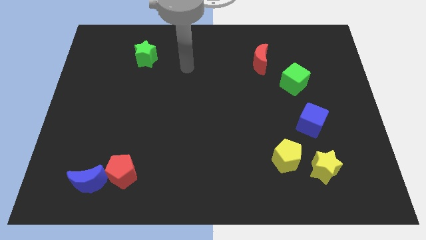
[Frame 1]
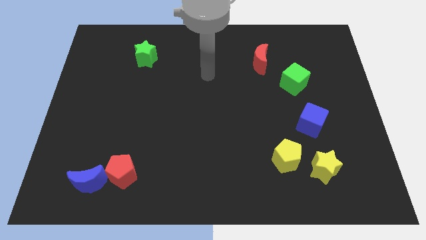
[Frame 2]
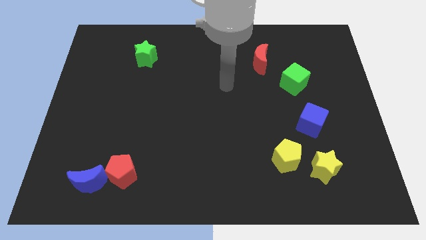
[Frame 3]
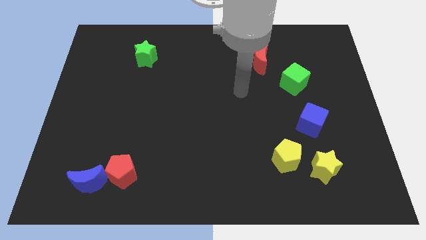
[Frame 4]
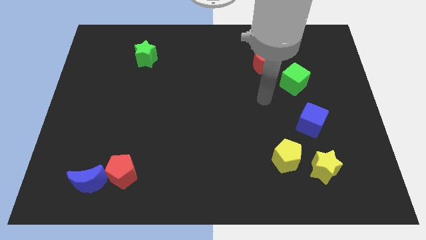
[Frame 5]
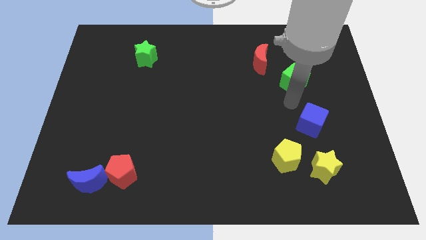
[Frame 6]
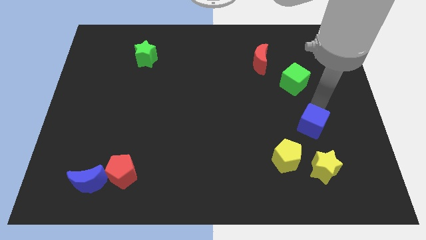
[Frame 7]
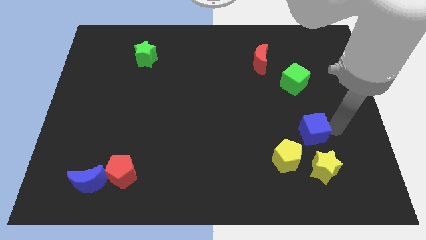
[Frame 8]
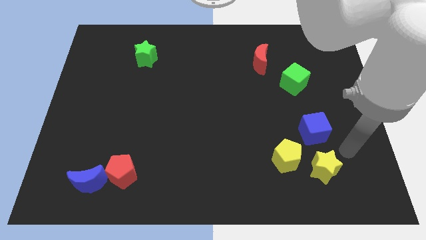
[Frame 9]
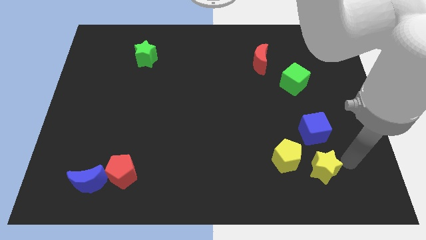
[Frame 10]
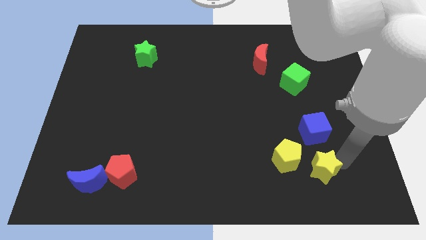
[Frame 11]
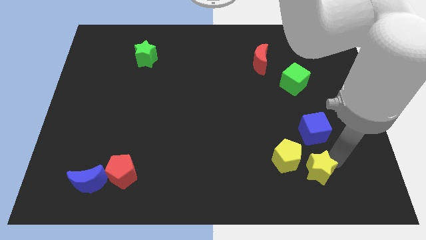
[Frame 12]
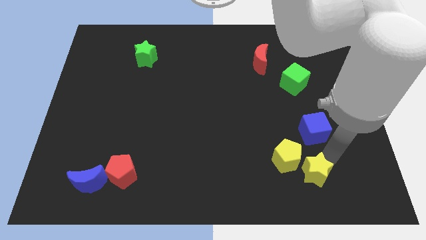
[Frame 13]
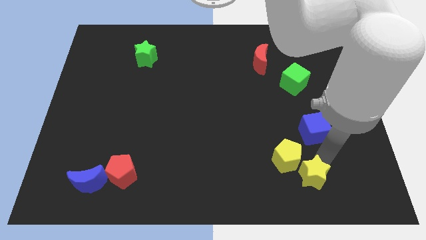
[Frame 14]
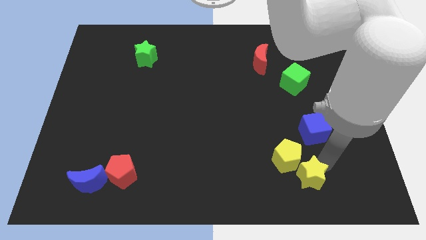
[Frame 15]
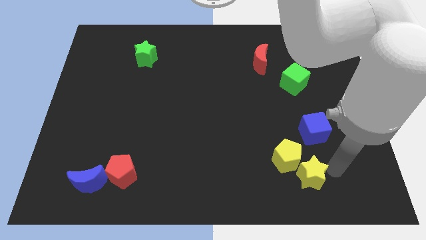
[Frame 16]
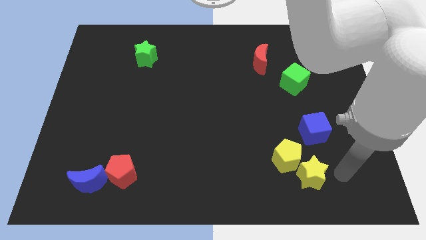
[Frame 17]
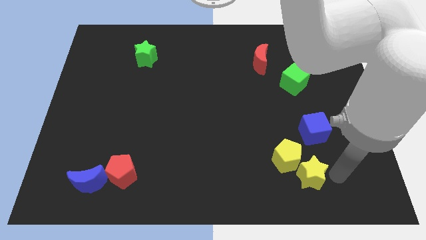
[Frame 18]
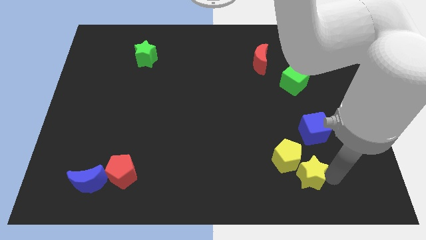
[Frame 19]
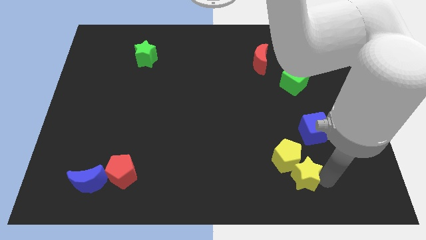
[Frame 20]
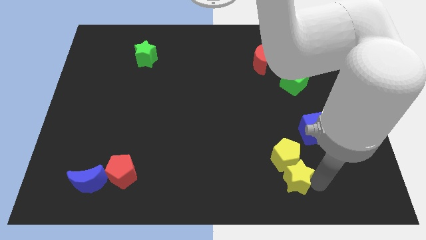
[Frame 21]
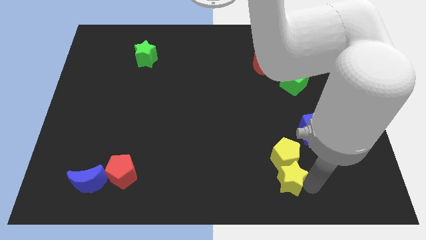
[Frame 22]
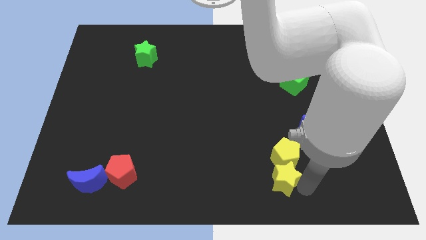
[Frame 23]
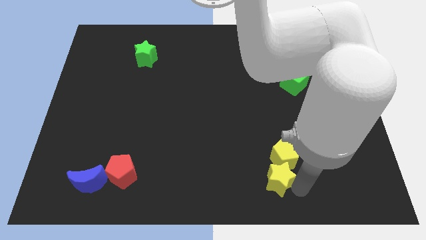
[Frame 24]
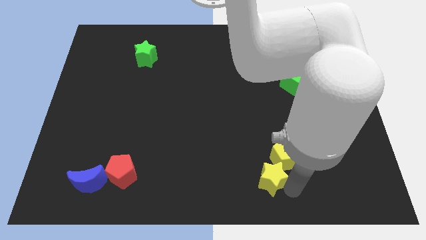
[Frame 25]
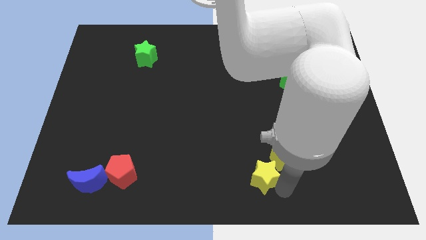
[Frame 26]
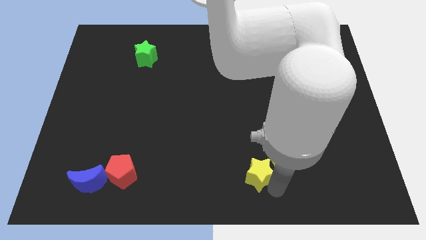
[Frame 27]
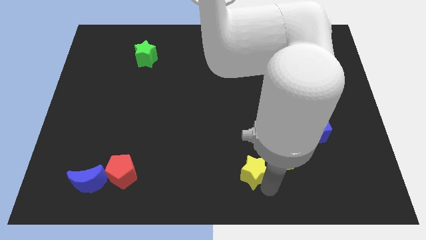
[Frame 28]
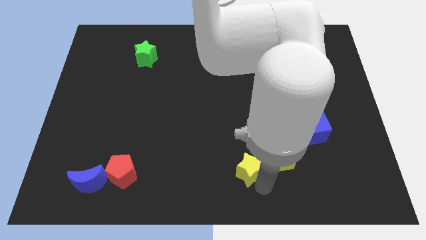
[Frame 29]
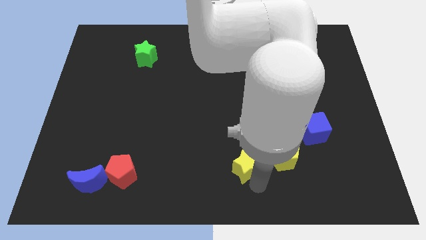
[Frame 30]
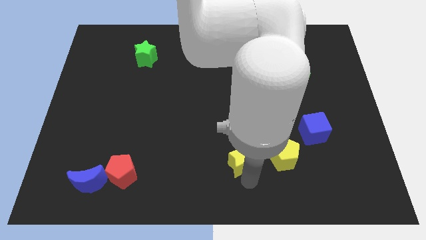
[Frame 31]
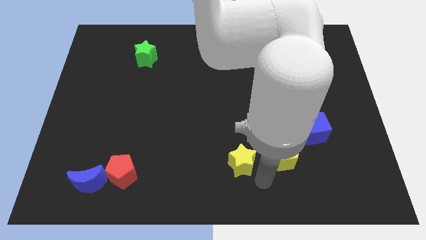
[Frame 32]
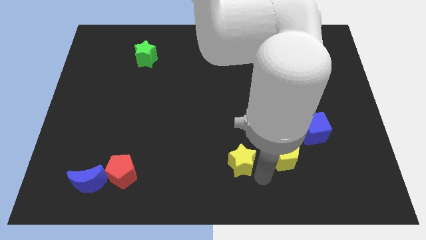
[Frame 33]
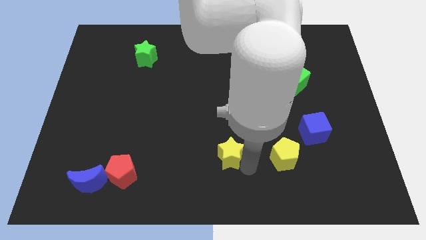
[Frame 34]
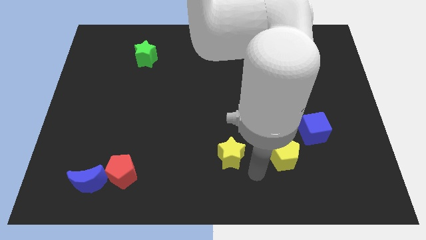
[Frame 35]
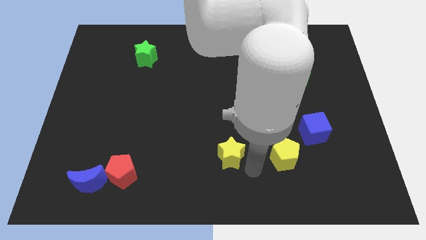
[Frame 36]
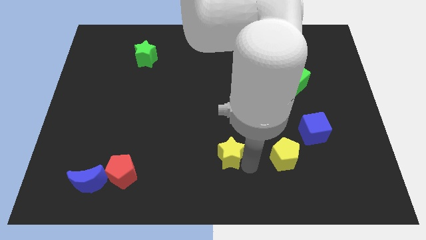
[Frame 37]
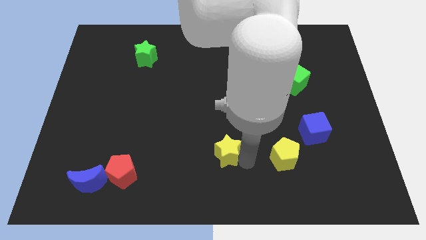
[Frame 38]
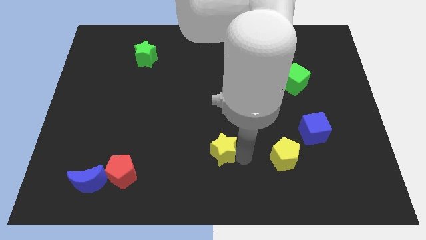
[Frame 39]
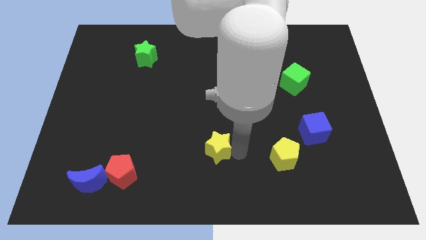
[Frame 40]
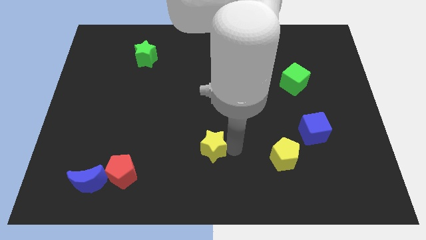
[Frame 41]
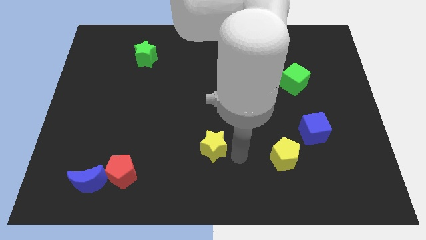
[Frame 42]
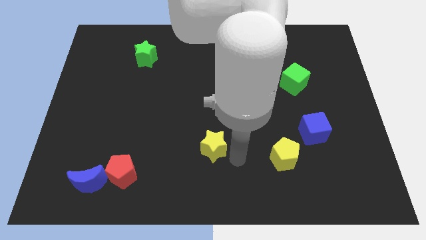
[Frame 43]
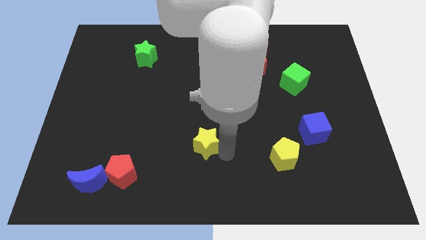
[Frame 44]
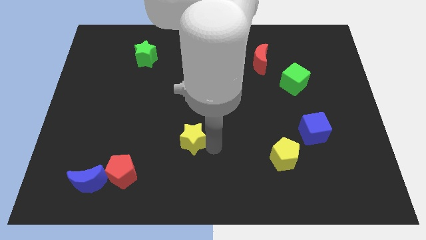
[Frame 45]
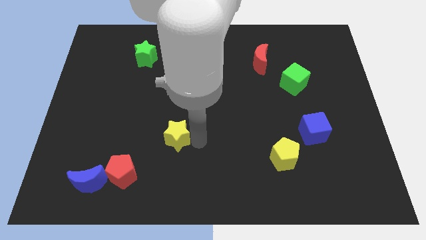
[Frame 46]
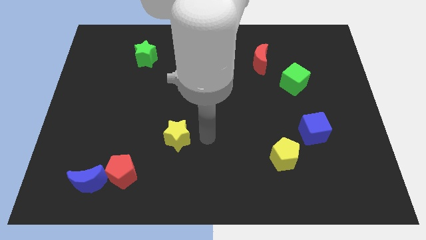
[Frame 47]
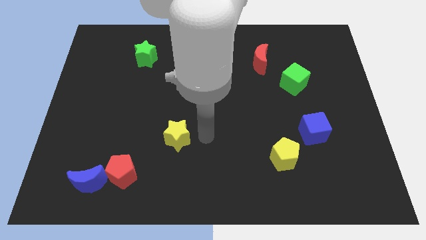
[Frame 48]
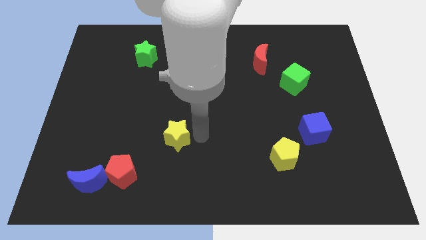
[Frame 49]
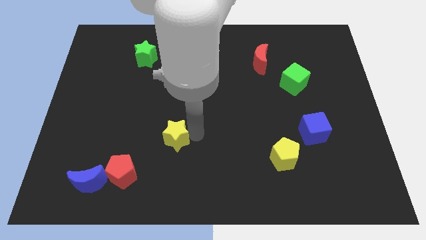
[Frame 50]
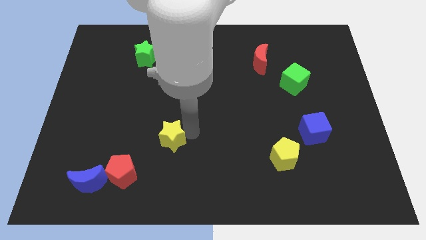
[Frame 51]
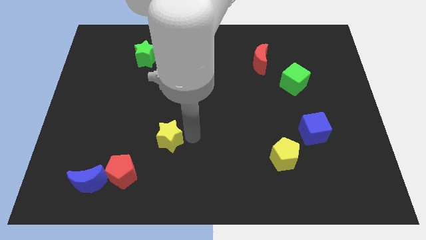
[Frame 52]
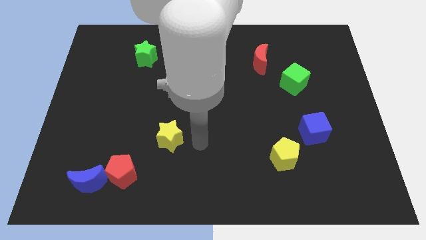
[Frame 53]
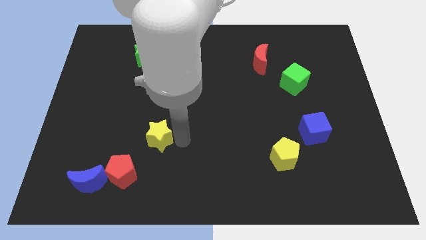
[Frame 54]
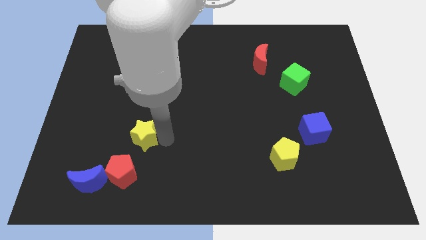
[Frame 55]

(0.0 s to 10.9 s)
push the yellow star to the top side of the red pentagon

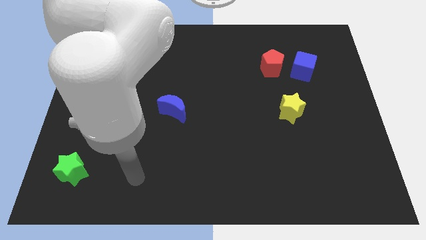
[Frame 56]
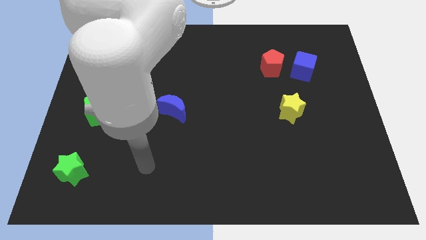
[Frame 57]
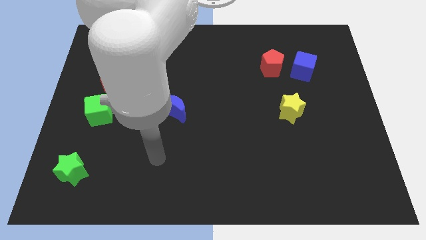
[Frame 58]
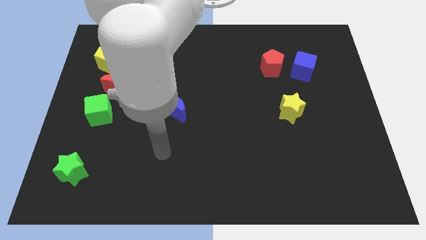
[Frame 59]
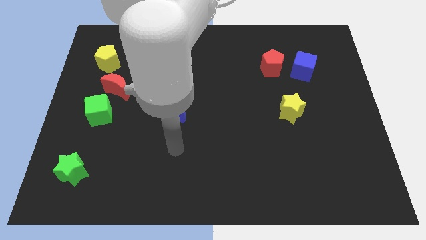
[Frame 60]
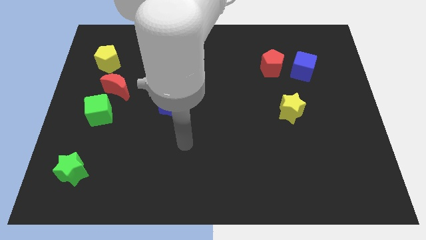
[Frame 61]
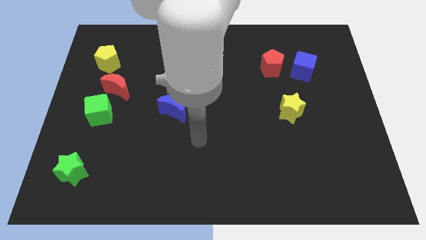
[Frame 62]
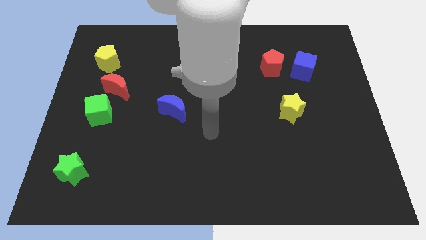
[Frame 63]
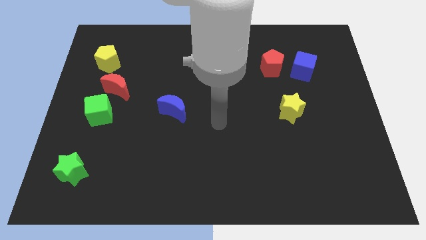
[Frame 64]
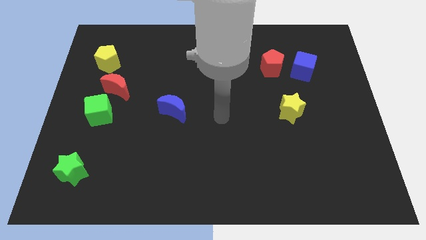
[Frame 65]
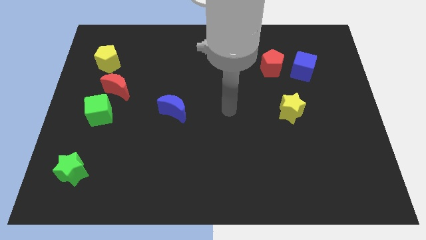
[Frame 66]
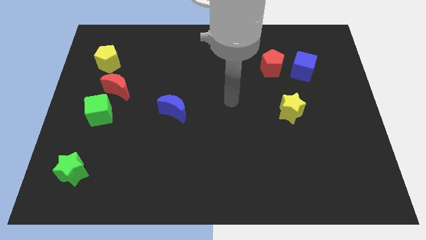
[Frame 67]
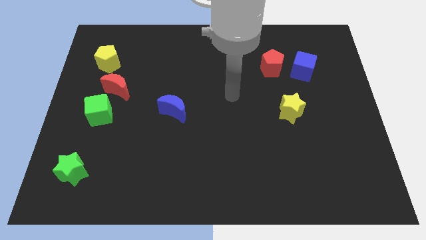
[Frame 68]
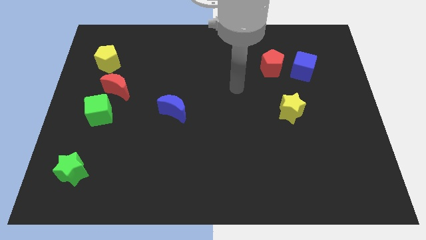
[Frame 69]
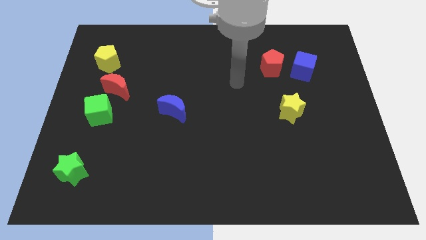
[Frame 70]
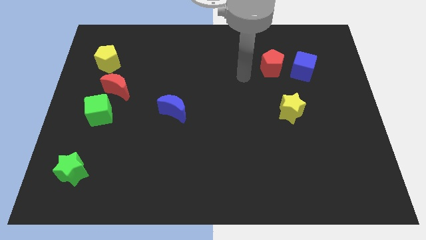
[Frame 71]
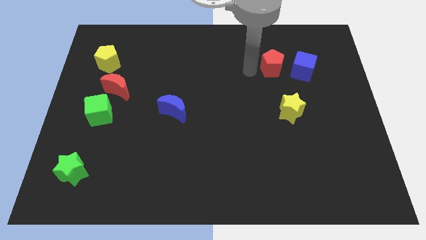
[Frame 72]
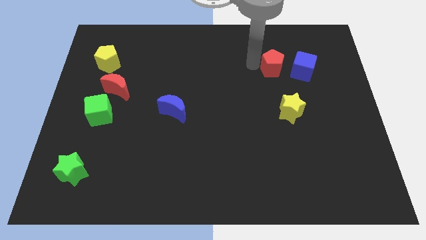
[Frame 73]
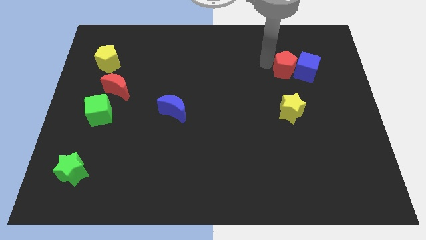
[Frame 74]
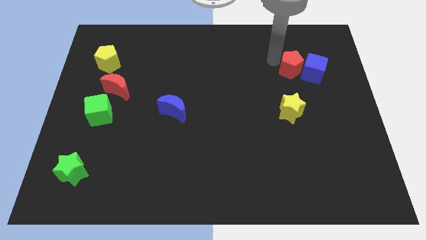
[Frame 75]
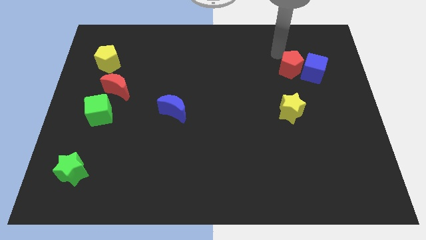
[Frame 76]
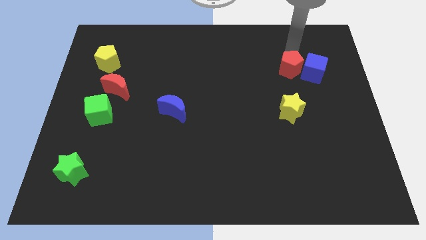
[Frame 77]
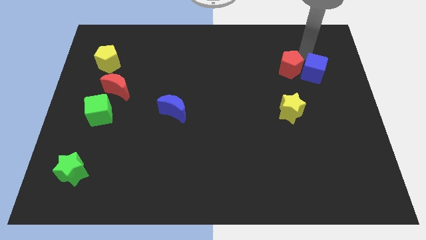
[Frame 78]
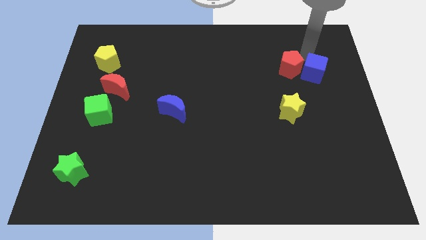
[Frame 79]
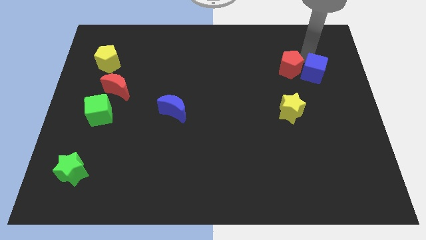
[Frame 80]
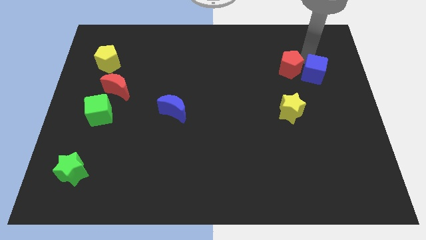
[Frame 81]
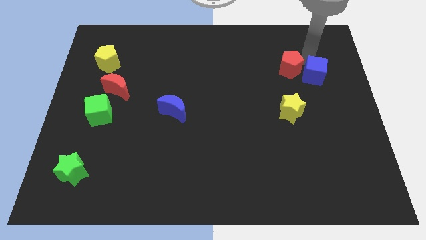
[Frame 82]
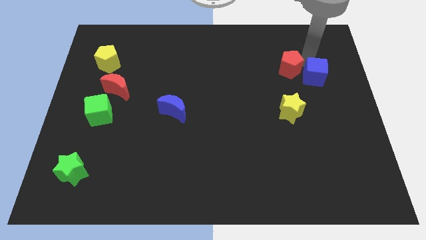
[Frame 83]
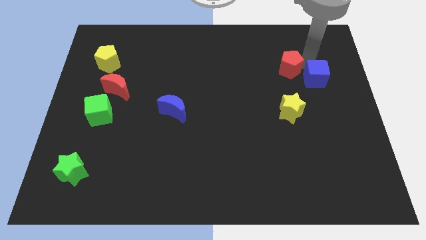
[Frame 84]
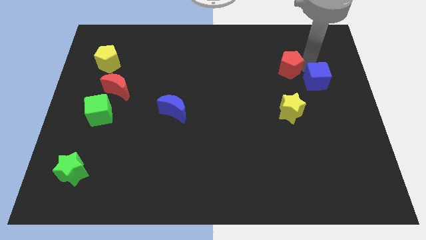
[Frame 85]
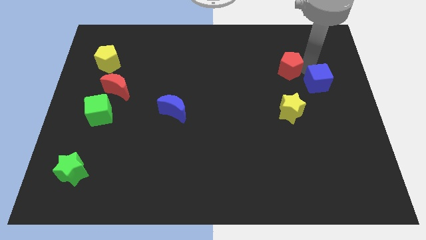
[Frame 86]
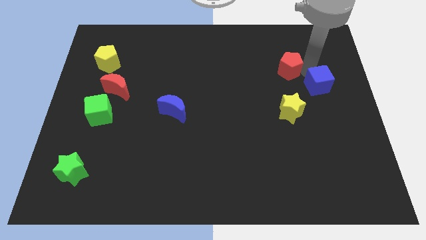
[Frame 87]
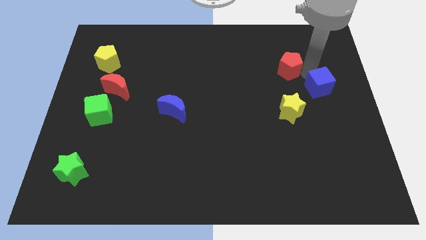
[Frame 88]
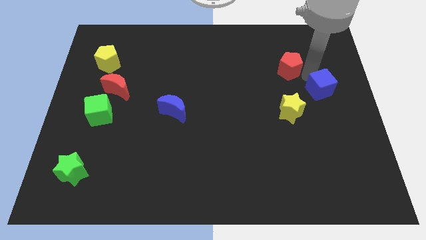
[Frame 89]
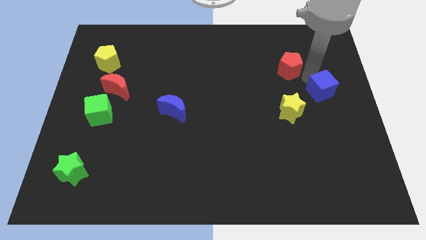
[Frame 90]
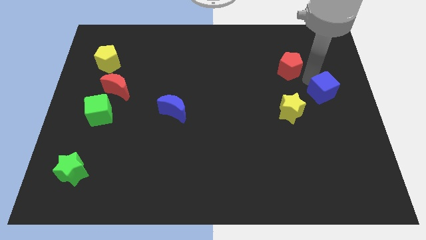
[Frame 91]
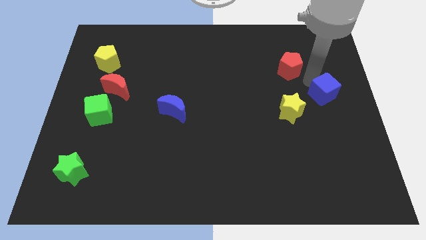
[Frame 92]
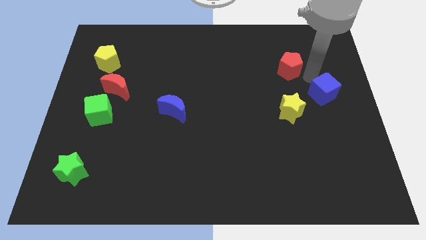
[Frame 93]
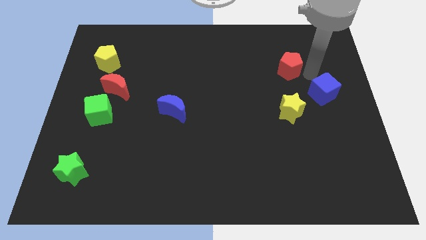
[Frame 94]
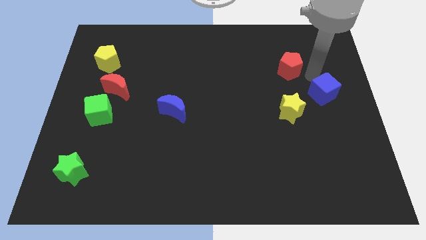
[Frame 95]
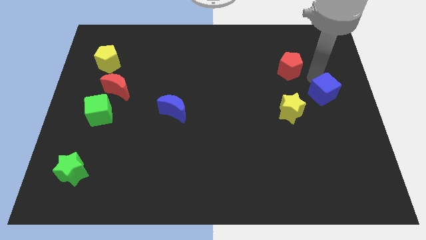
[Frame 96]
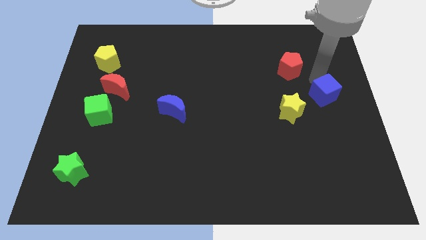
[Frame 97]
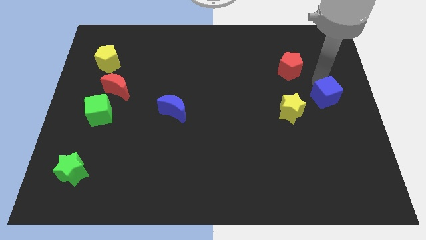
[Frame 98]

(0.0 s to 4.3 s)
put the blue cube just right of the yellow star
